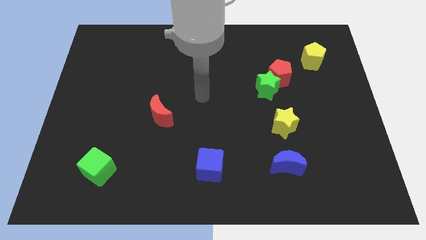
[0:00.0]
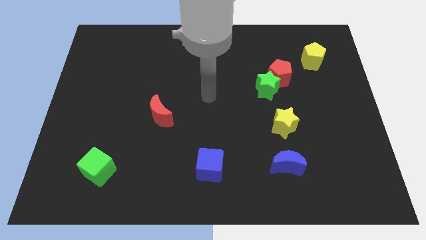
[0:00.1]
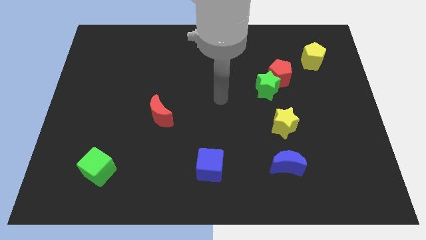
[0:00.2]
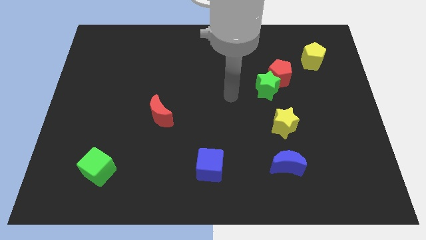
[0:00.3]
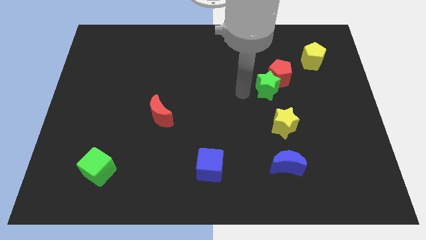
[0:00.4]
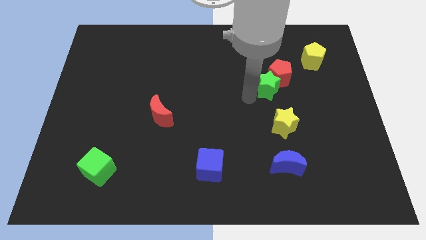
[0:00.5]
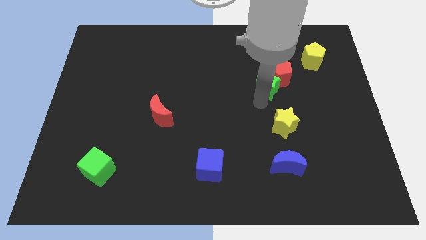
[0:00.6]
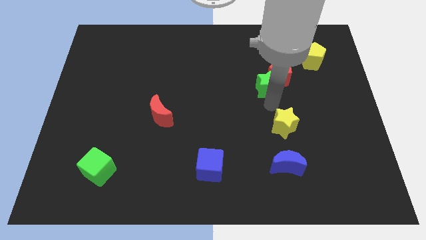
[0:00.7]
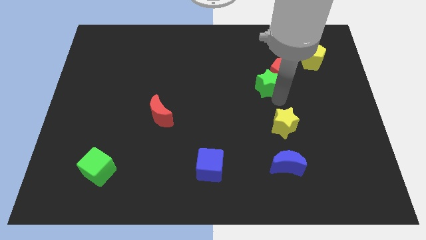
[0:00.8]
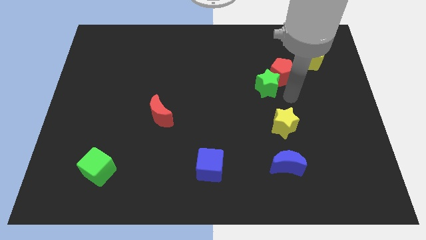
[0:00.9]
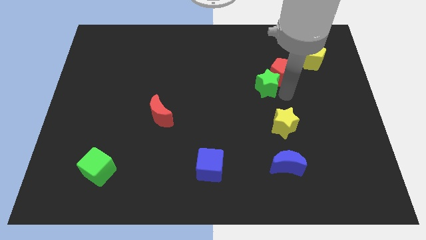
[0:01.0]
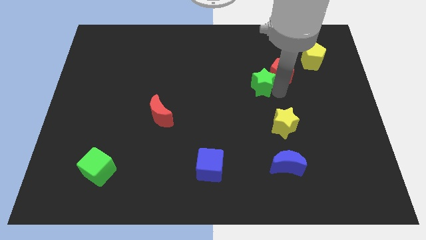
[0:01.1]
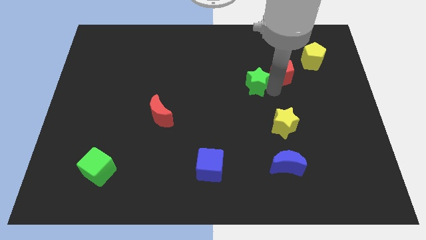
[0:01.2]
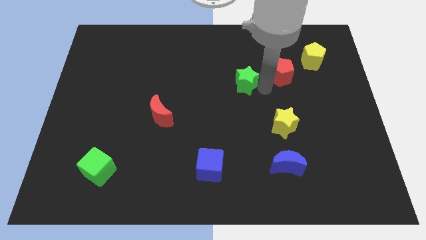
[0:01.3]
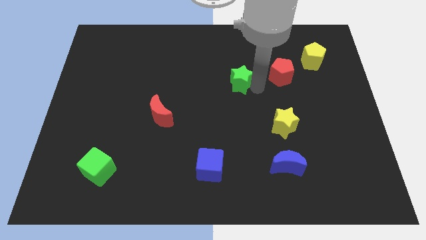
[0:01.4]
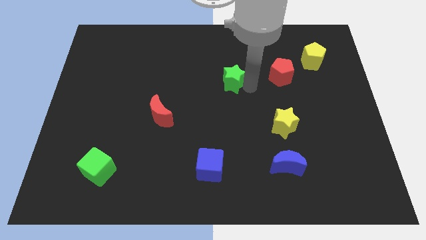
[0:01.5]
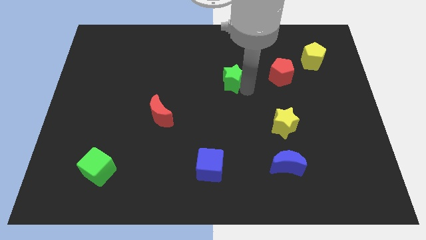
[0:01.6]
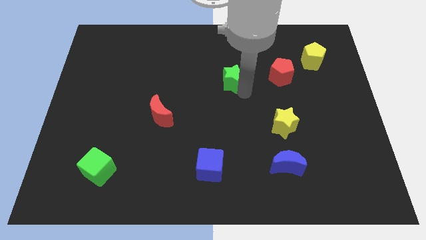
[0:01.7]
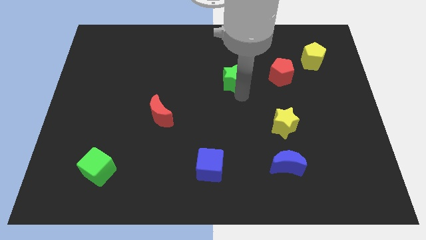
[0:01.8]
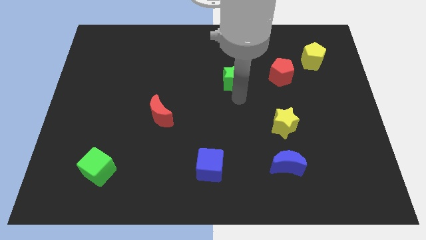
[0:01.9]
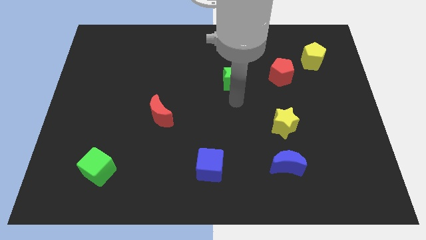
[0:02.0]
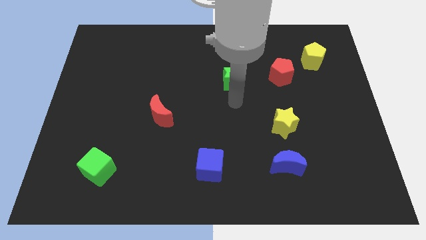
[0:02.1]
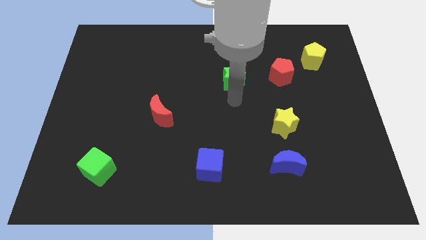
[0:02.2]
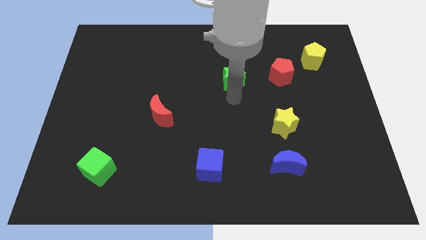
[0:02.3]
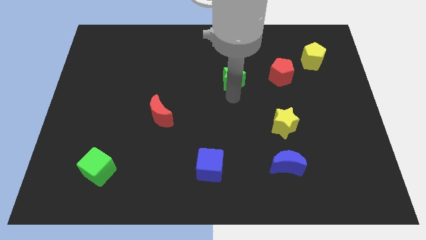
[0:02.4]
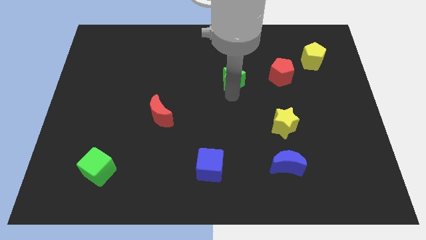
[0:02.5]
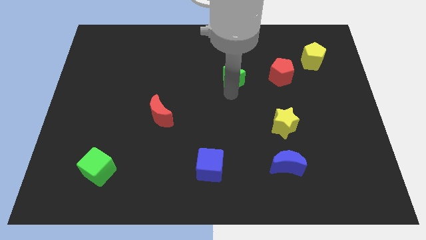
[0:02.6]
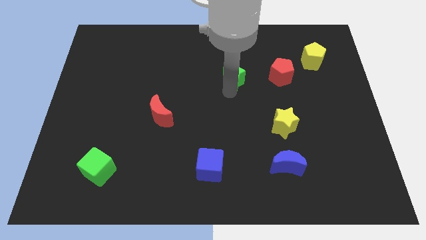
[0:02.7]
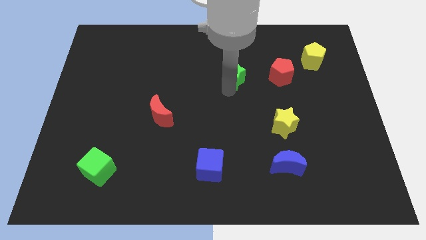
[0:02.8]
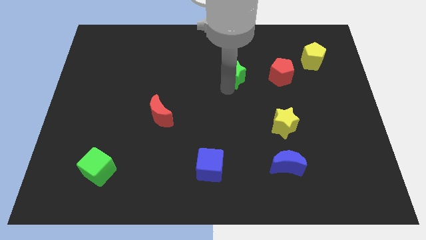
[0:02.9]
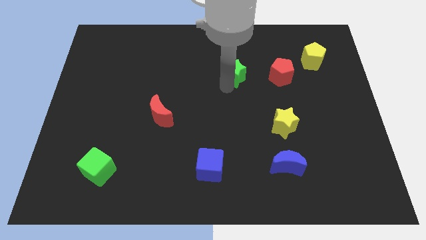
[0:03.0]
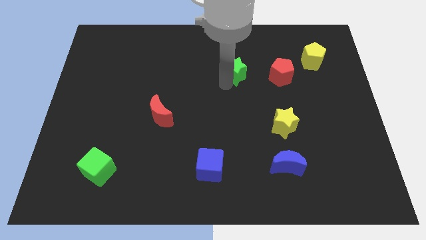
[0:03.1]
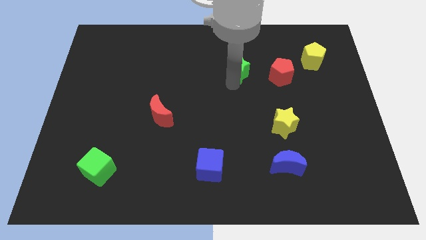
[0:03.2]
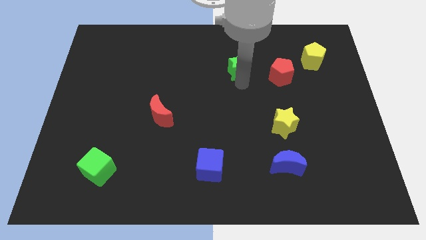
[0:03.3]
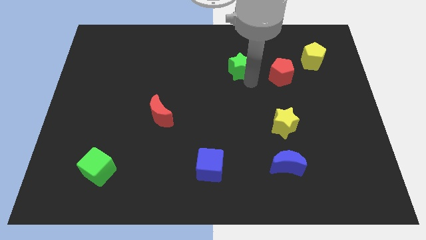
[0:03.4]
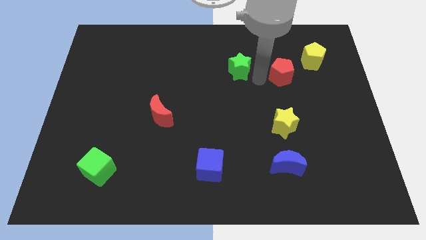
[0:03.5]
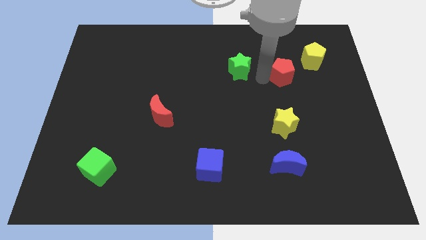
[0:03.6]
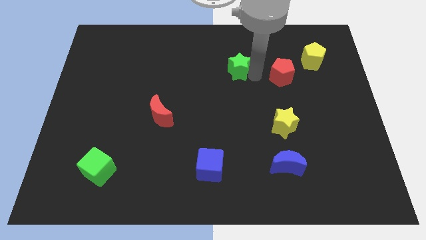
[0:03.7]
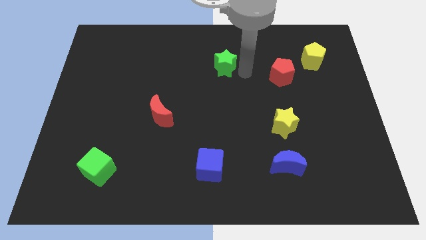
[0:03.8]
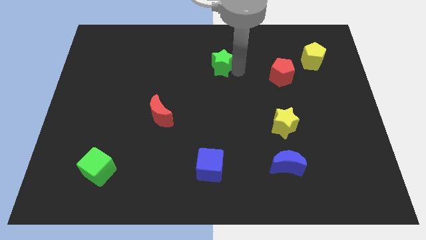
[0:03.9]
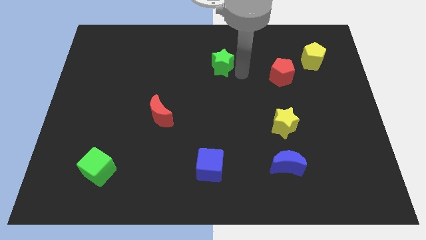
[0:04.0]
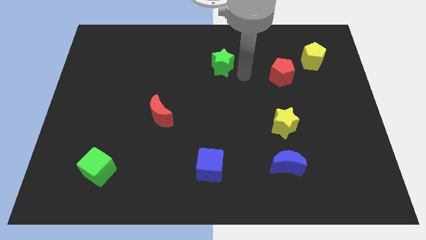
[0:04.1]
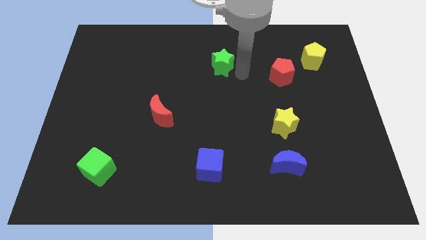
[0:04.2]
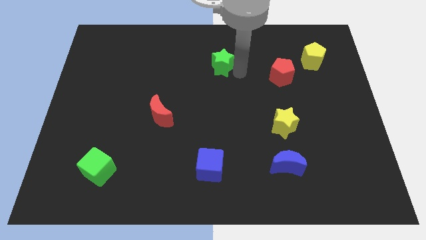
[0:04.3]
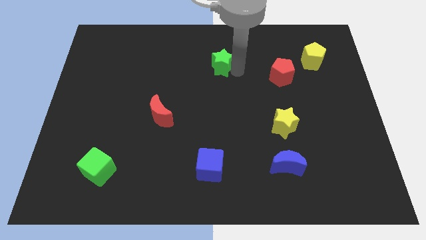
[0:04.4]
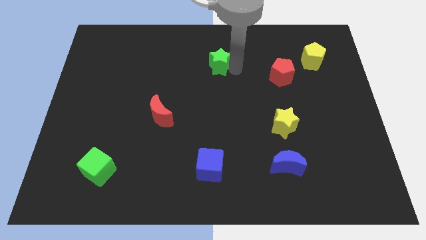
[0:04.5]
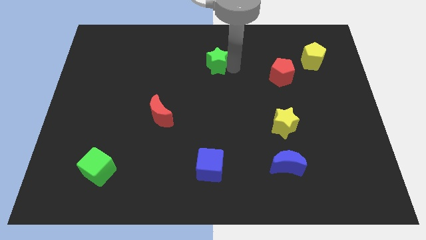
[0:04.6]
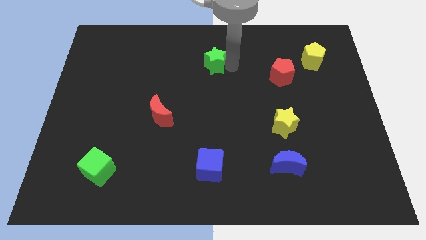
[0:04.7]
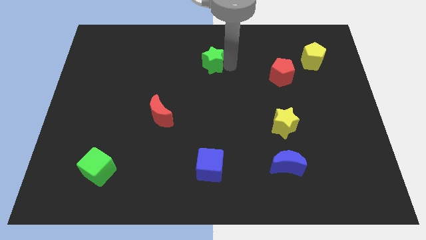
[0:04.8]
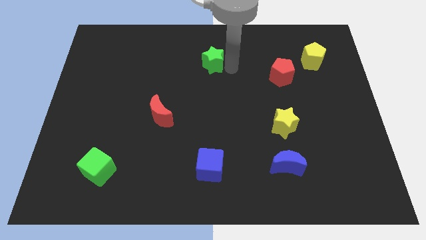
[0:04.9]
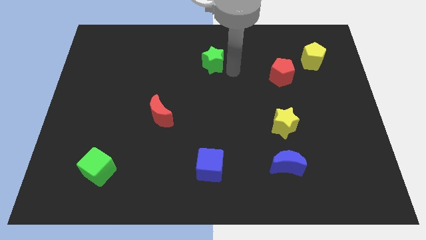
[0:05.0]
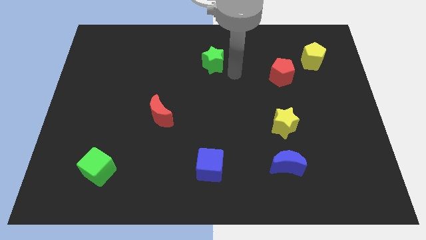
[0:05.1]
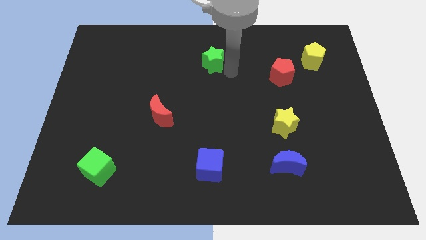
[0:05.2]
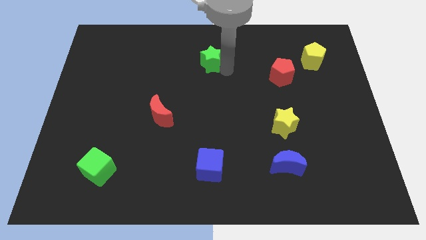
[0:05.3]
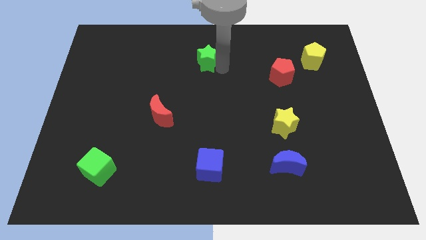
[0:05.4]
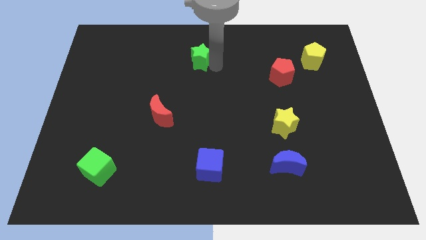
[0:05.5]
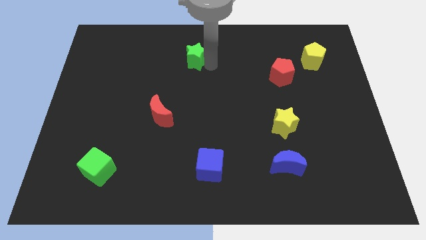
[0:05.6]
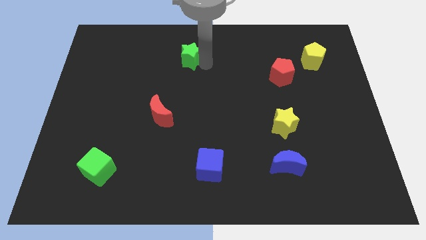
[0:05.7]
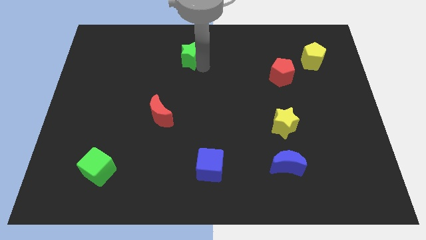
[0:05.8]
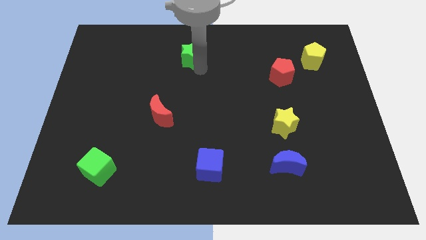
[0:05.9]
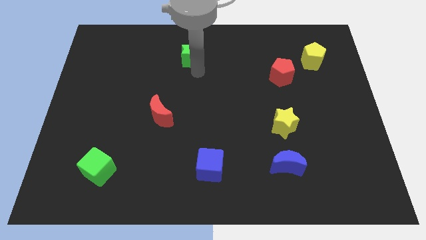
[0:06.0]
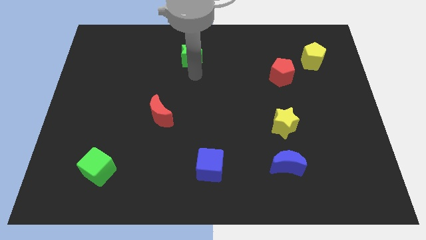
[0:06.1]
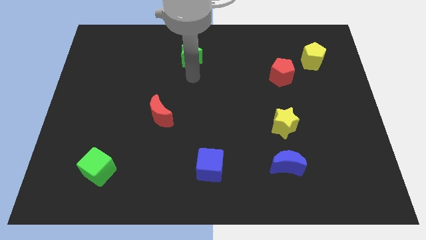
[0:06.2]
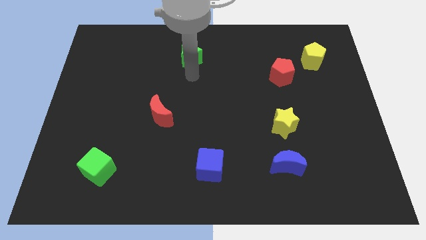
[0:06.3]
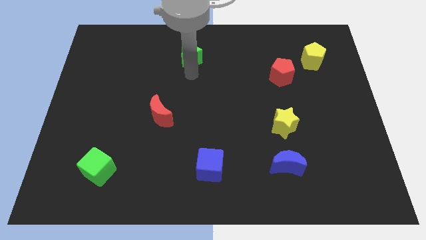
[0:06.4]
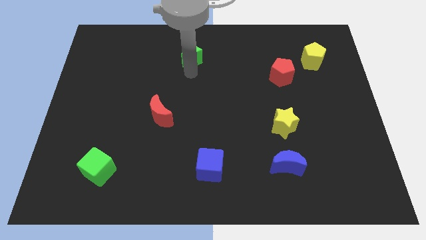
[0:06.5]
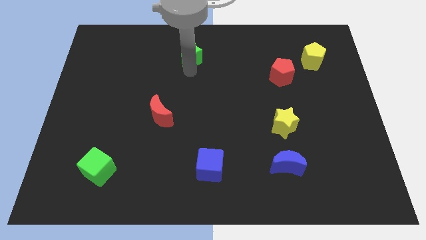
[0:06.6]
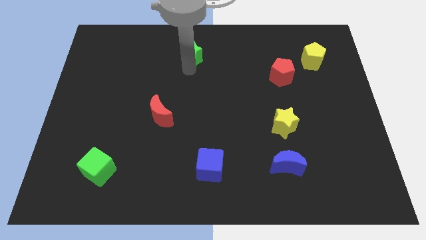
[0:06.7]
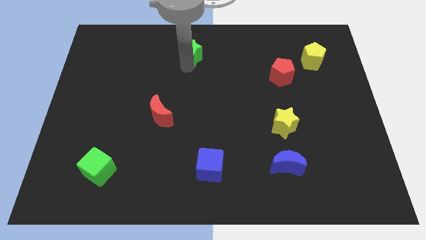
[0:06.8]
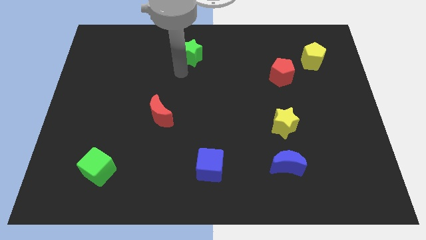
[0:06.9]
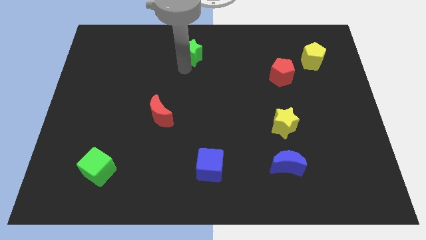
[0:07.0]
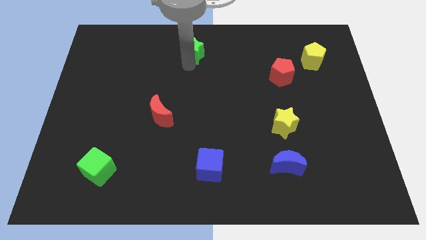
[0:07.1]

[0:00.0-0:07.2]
move the green star to the top side
